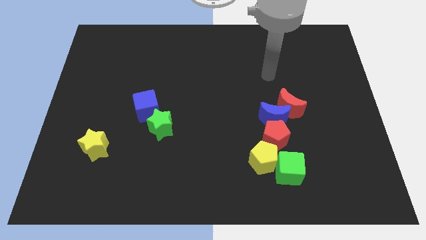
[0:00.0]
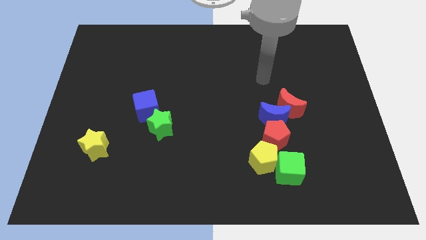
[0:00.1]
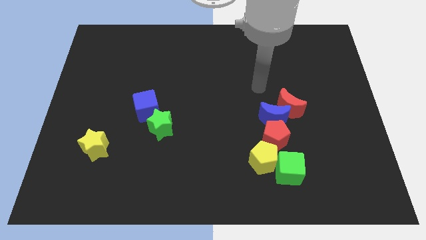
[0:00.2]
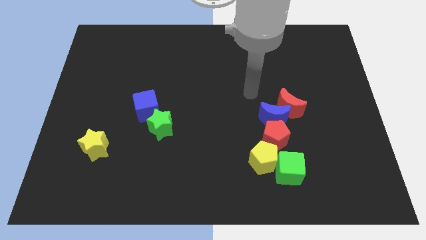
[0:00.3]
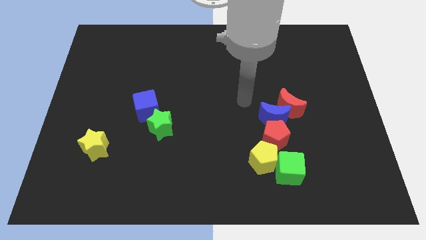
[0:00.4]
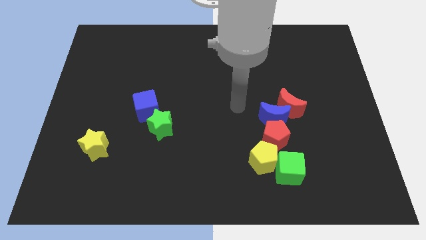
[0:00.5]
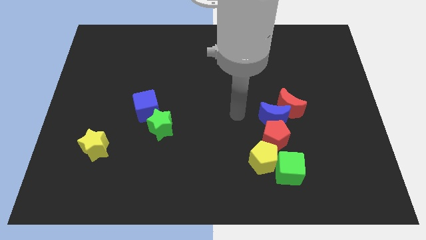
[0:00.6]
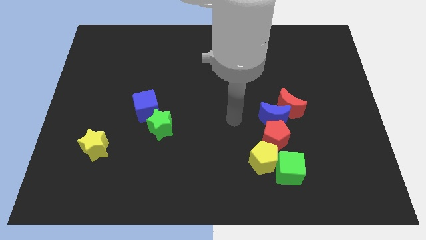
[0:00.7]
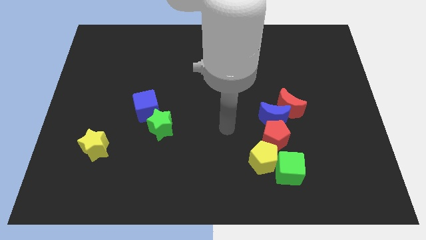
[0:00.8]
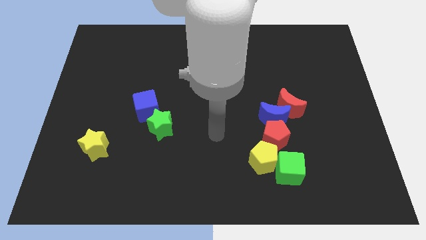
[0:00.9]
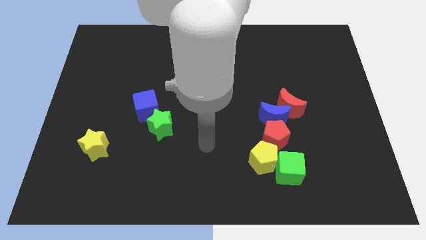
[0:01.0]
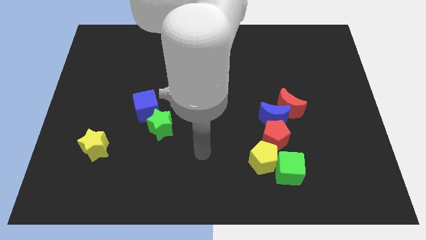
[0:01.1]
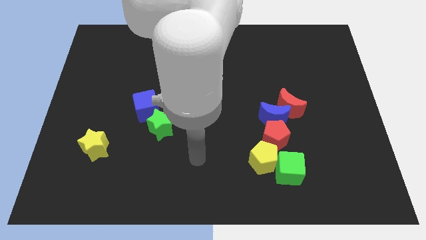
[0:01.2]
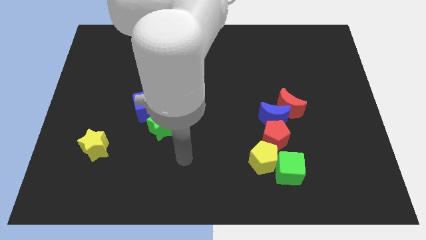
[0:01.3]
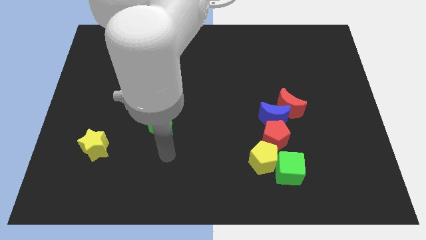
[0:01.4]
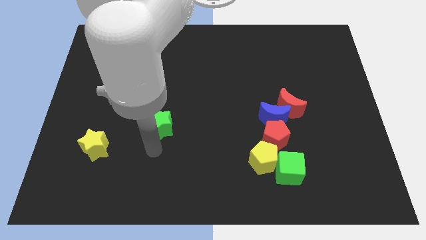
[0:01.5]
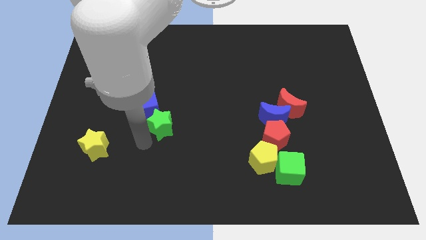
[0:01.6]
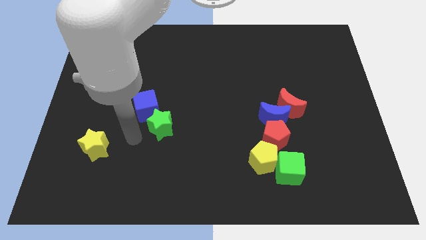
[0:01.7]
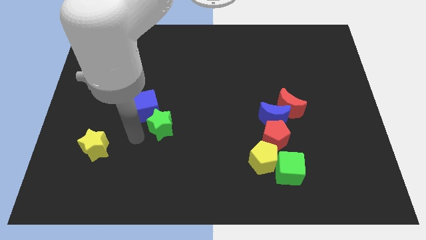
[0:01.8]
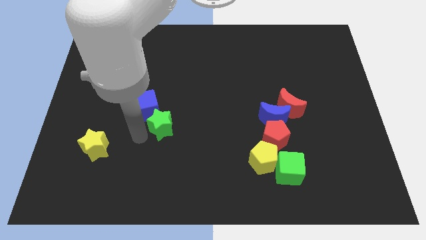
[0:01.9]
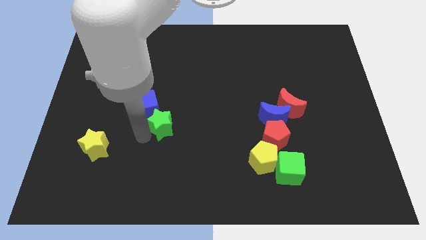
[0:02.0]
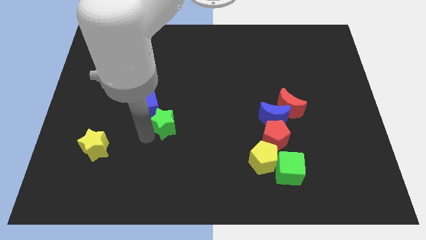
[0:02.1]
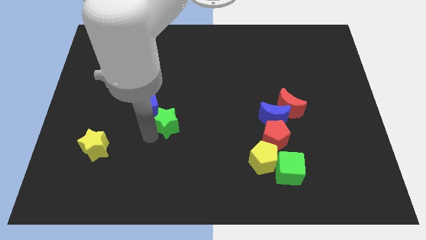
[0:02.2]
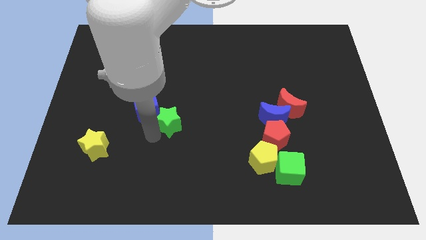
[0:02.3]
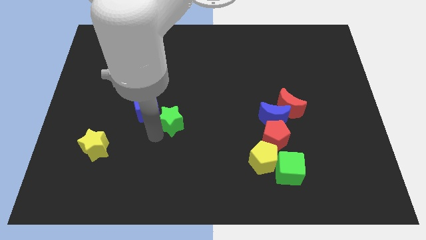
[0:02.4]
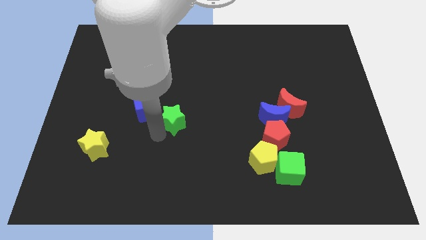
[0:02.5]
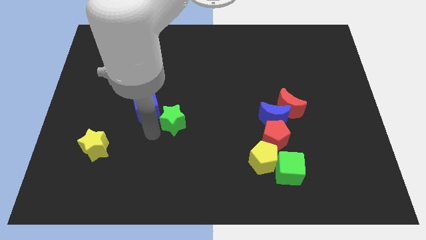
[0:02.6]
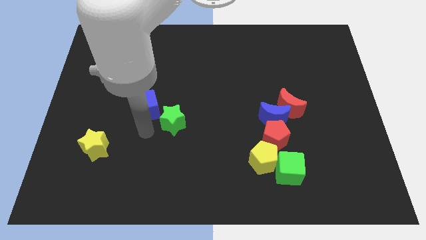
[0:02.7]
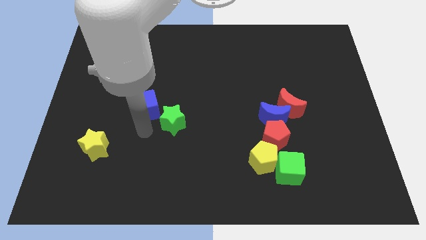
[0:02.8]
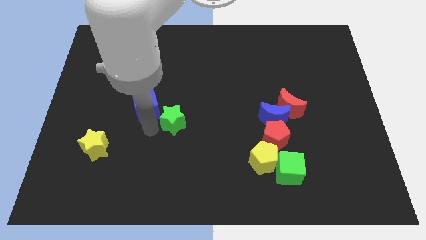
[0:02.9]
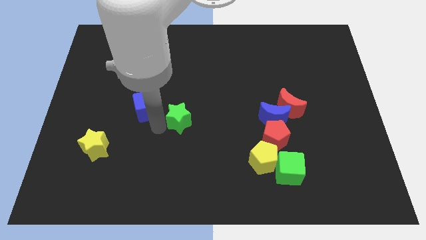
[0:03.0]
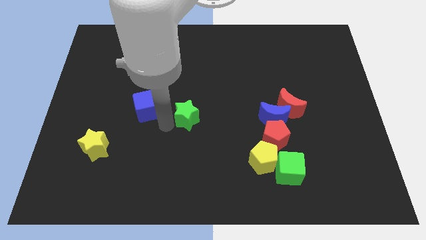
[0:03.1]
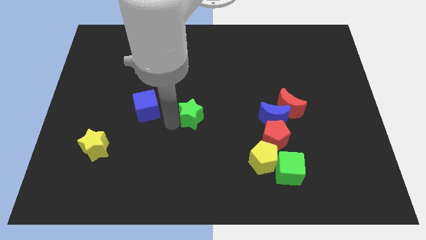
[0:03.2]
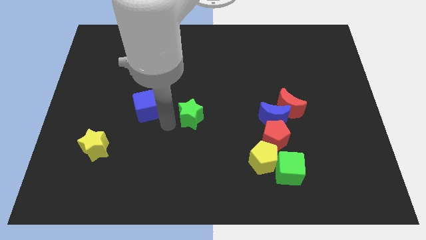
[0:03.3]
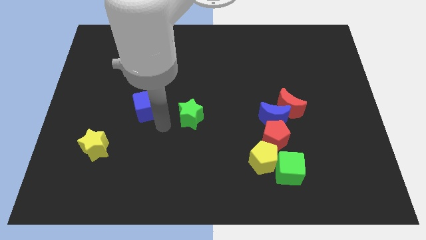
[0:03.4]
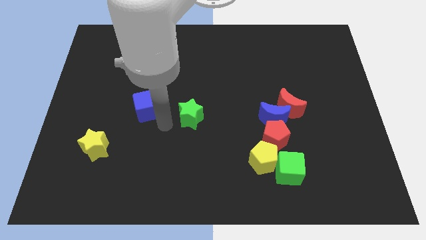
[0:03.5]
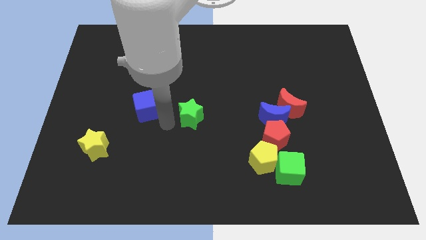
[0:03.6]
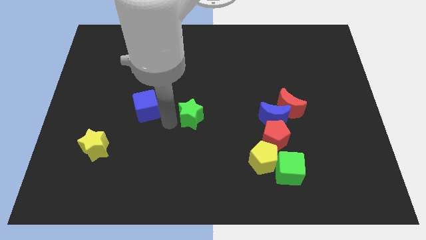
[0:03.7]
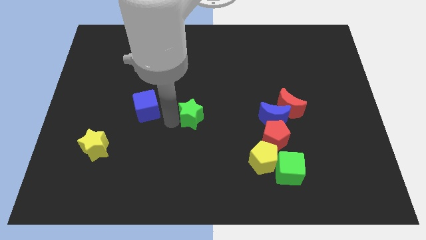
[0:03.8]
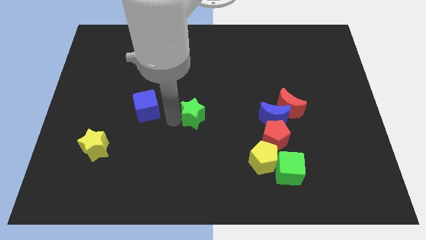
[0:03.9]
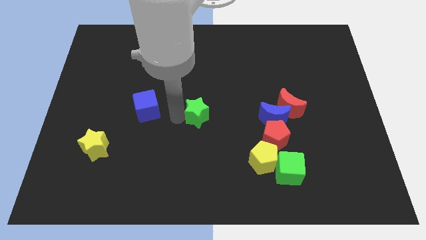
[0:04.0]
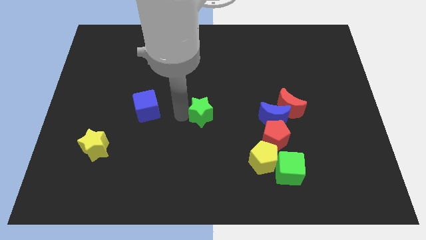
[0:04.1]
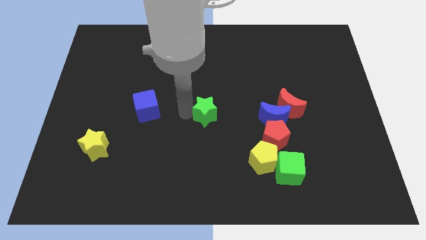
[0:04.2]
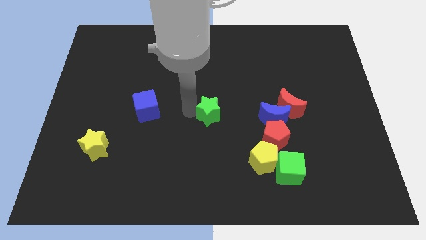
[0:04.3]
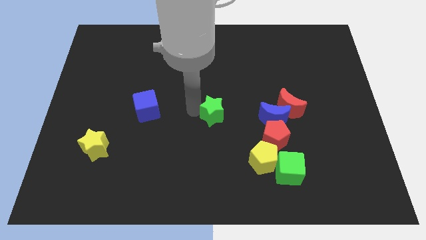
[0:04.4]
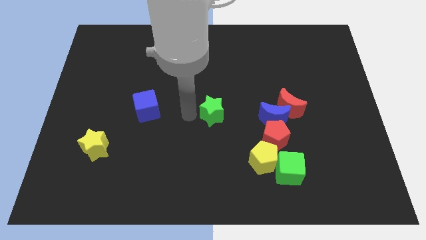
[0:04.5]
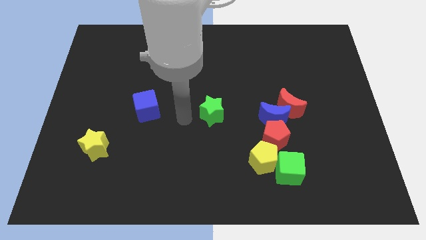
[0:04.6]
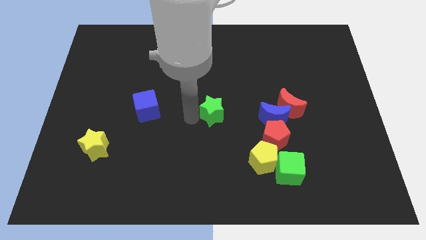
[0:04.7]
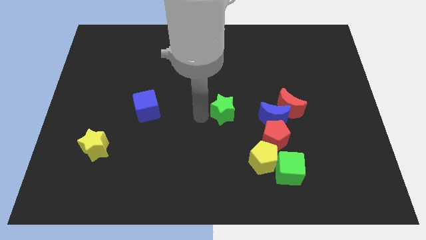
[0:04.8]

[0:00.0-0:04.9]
put the green star just left of the red moon
